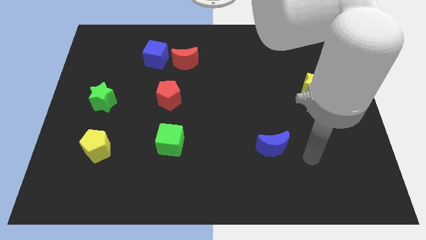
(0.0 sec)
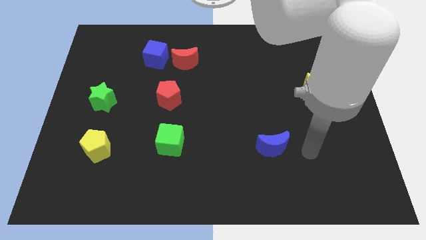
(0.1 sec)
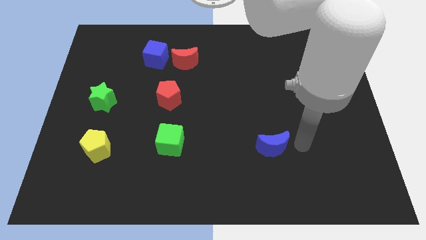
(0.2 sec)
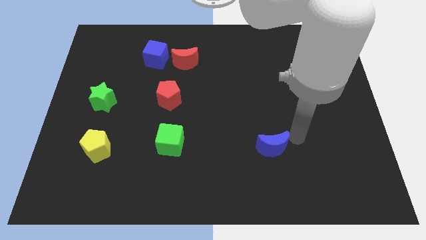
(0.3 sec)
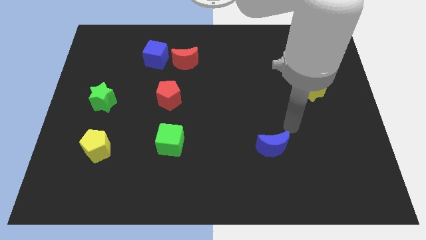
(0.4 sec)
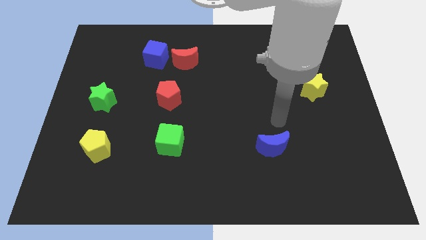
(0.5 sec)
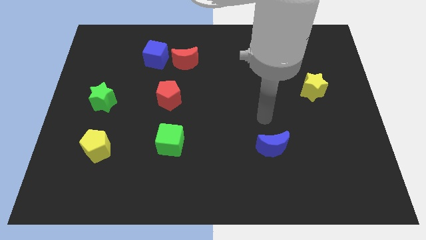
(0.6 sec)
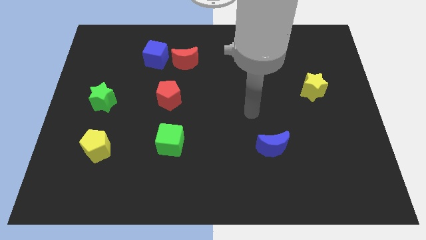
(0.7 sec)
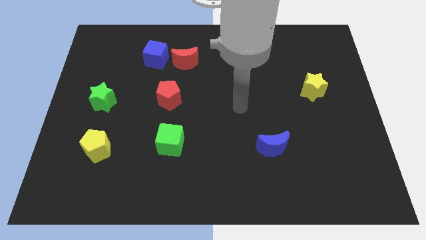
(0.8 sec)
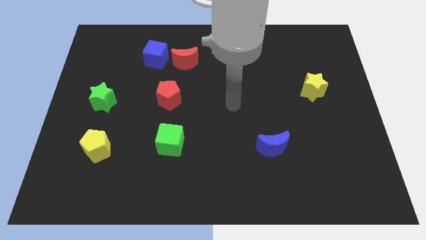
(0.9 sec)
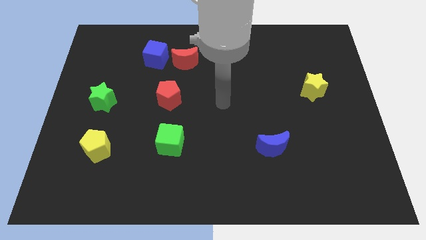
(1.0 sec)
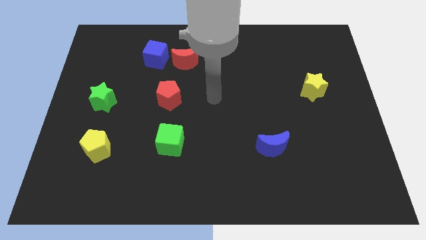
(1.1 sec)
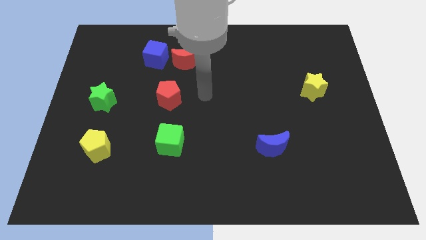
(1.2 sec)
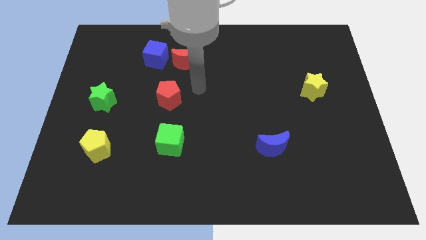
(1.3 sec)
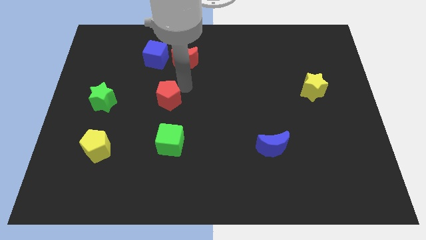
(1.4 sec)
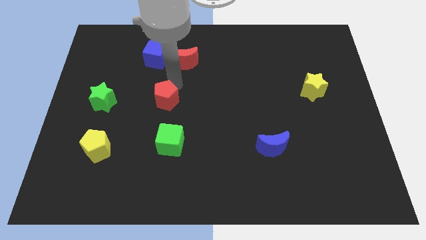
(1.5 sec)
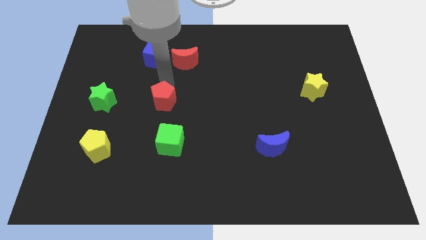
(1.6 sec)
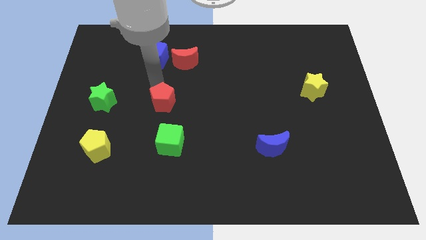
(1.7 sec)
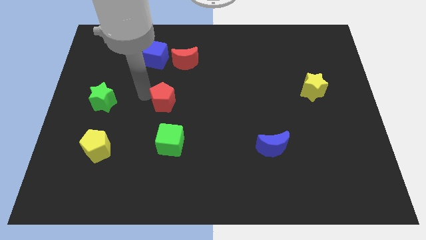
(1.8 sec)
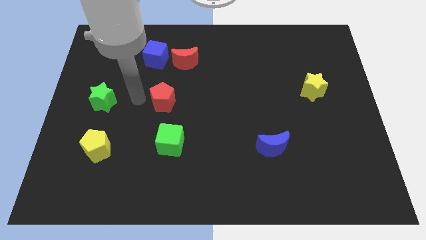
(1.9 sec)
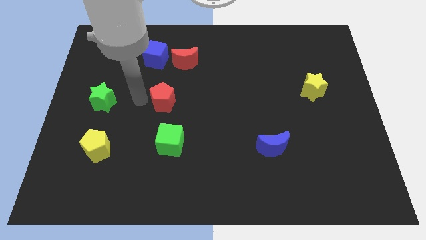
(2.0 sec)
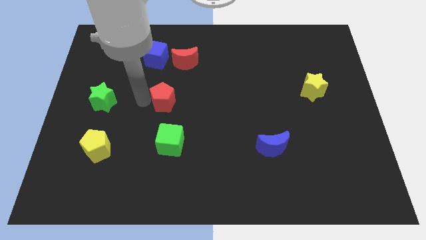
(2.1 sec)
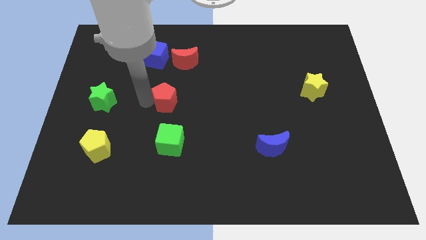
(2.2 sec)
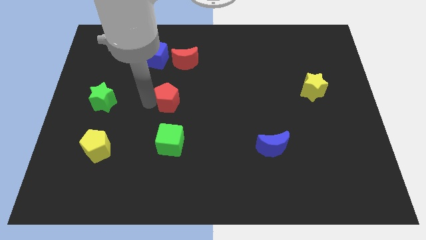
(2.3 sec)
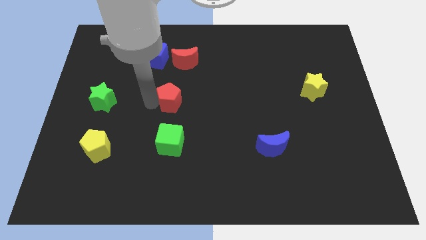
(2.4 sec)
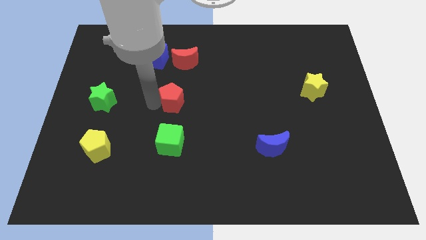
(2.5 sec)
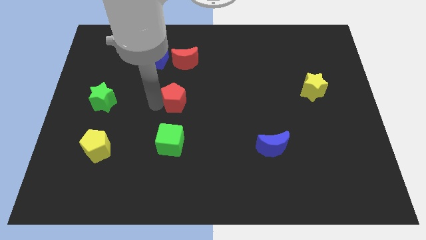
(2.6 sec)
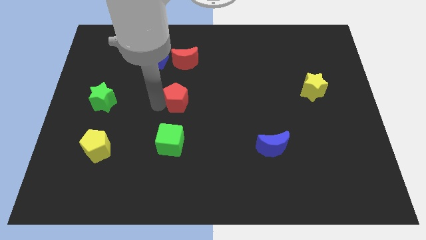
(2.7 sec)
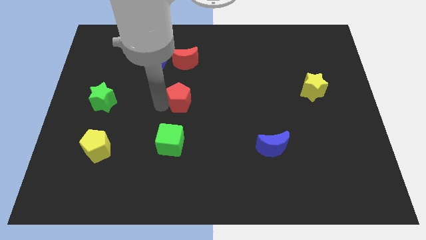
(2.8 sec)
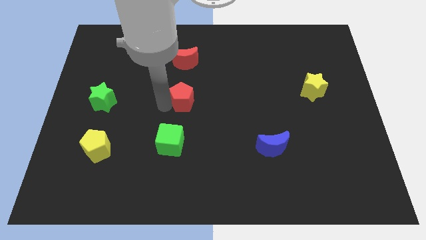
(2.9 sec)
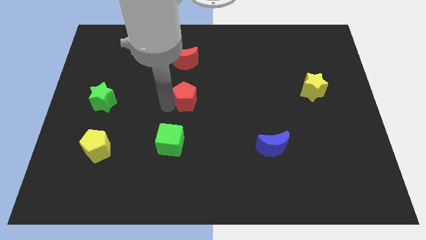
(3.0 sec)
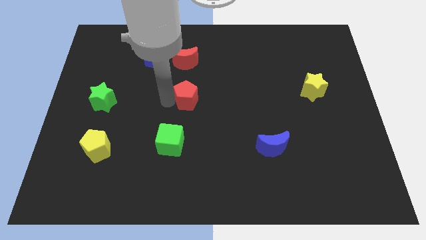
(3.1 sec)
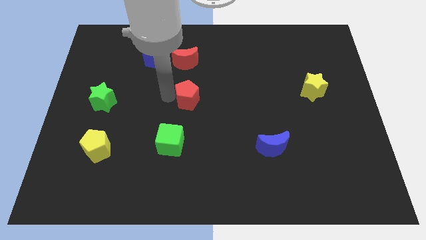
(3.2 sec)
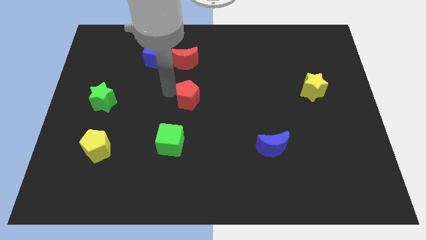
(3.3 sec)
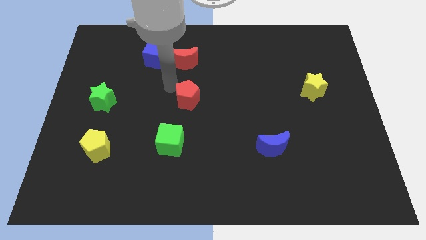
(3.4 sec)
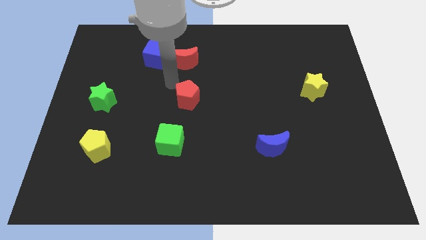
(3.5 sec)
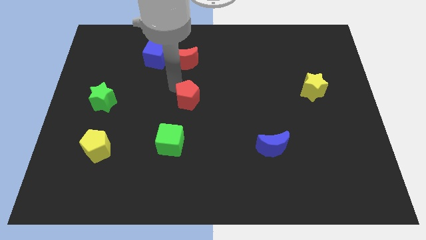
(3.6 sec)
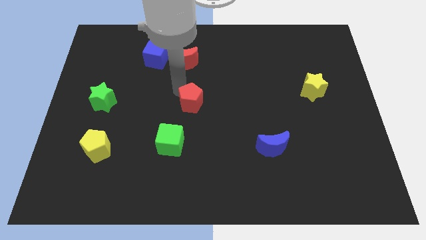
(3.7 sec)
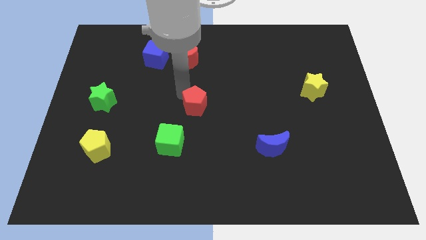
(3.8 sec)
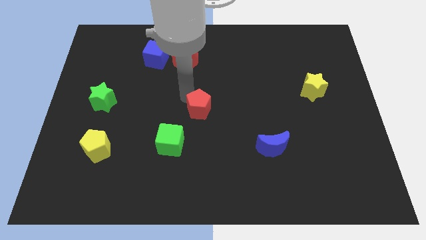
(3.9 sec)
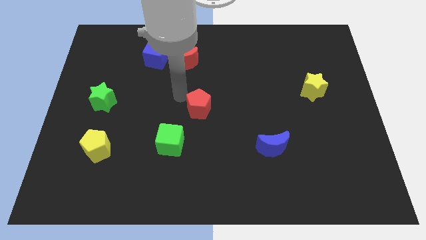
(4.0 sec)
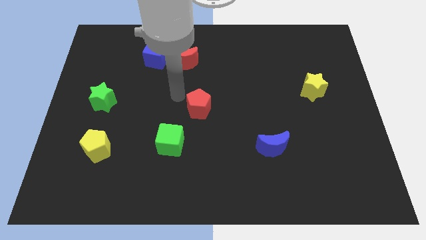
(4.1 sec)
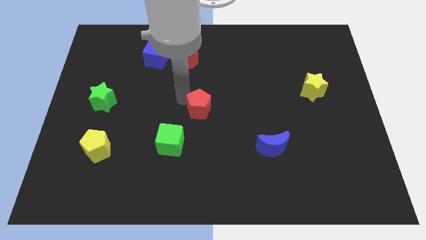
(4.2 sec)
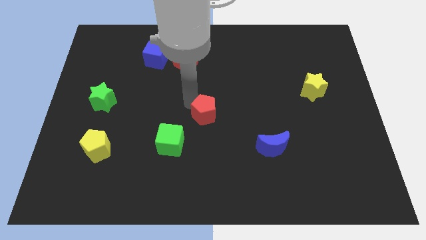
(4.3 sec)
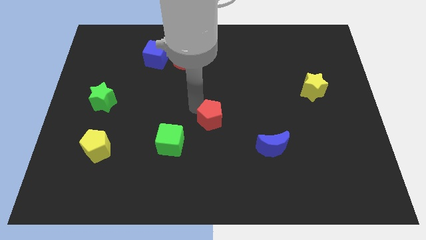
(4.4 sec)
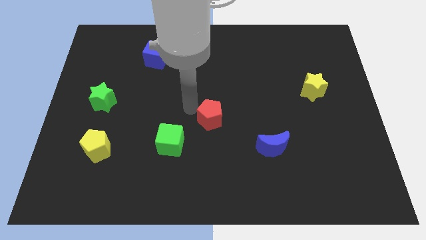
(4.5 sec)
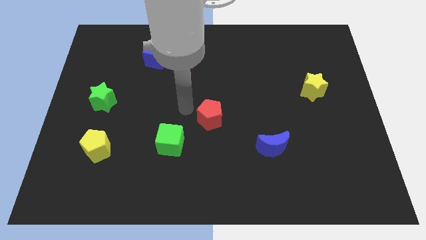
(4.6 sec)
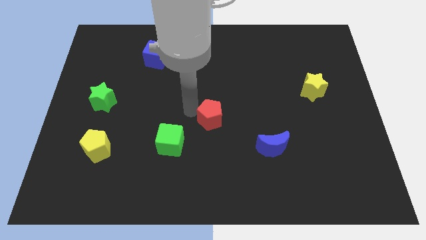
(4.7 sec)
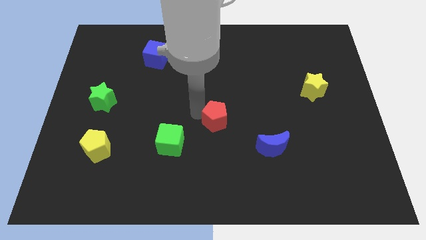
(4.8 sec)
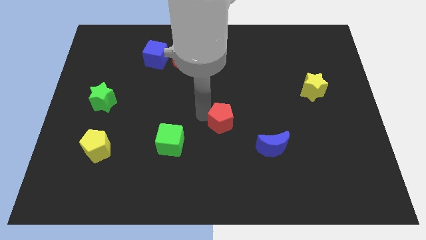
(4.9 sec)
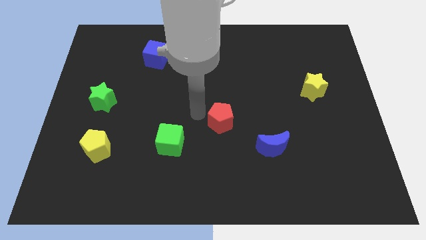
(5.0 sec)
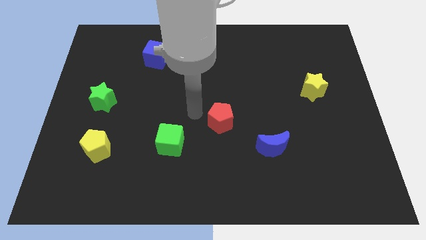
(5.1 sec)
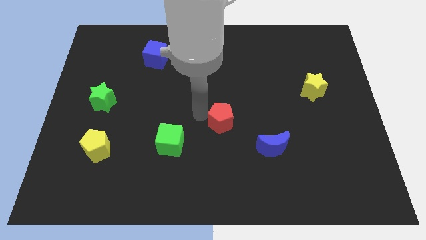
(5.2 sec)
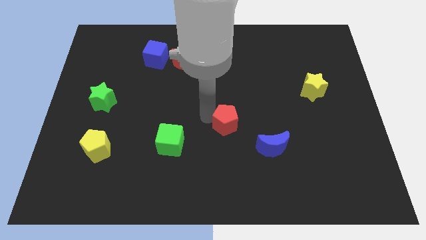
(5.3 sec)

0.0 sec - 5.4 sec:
put the red pentagon diagonally up and to the left of the blue moon

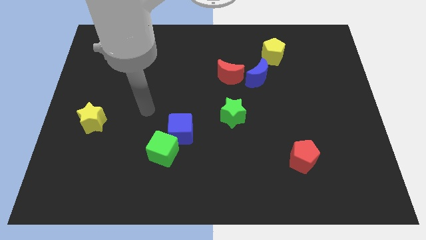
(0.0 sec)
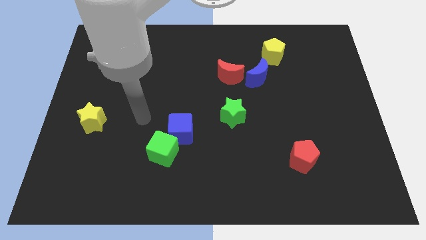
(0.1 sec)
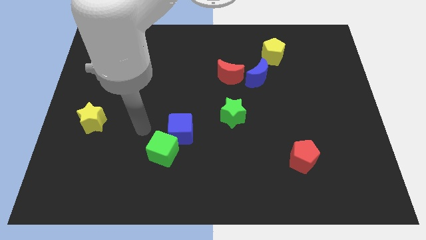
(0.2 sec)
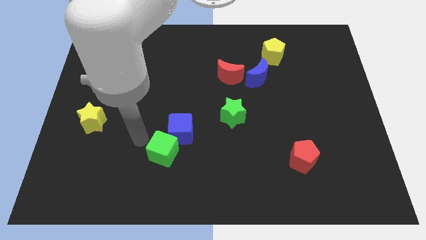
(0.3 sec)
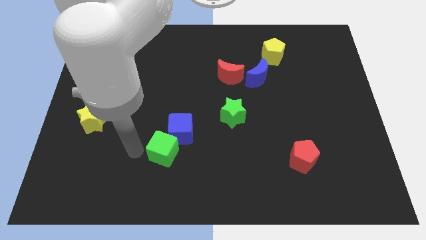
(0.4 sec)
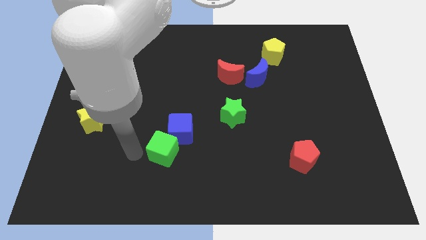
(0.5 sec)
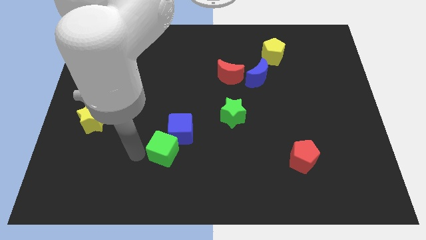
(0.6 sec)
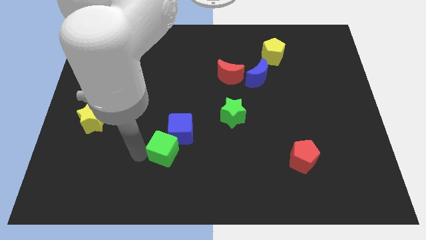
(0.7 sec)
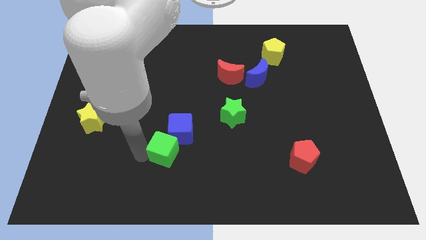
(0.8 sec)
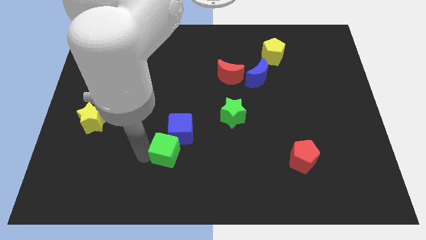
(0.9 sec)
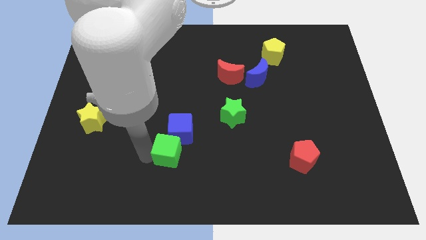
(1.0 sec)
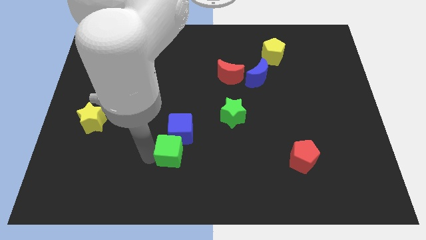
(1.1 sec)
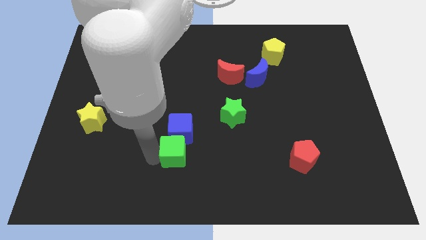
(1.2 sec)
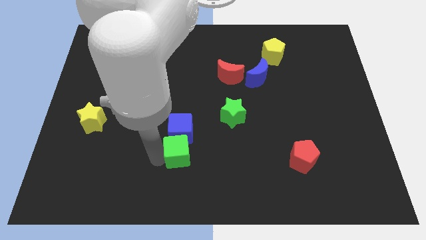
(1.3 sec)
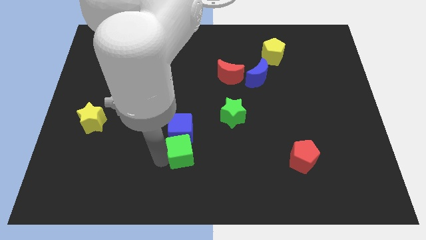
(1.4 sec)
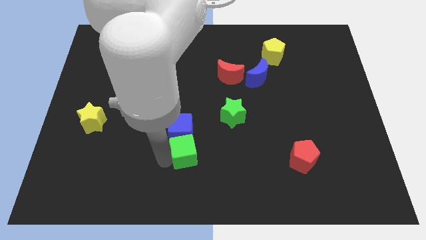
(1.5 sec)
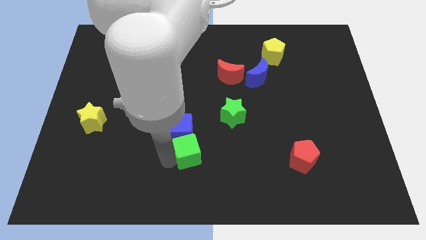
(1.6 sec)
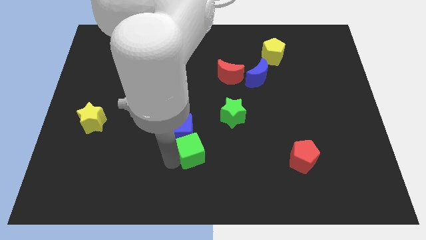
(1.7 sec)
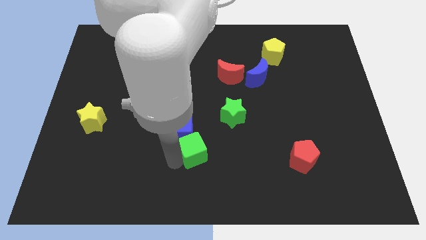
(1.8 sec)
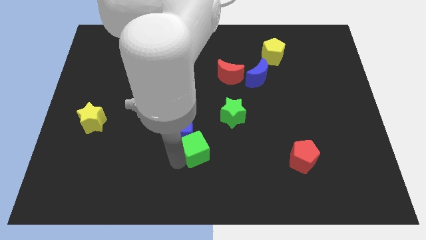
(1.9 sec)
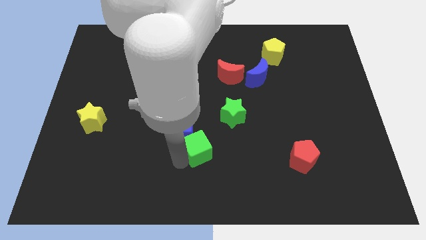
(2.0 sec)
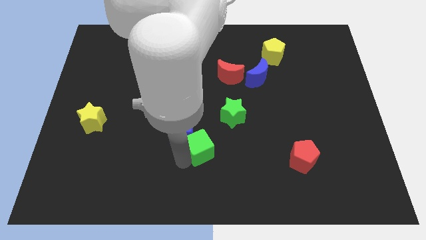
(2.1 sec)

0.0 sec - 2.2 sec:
move the green cube to the right of the blue cube
